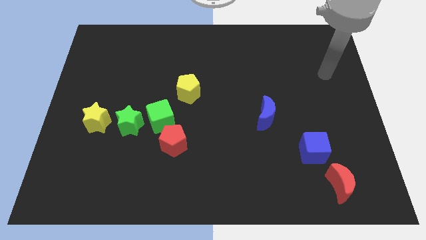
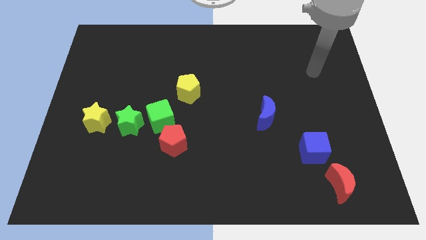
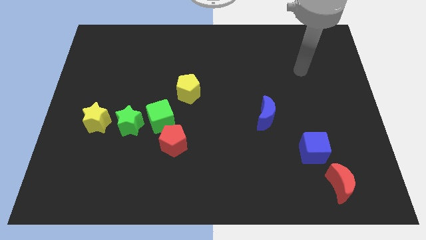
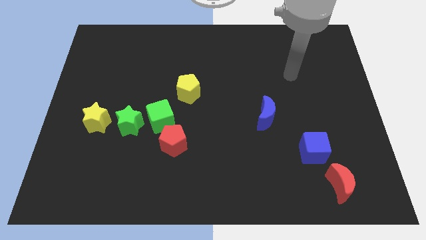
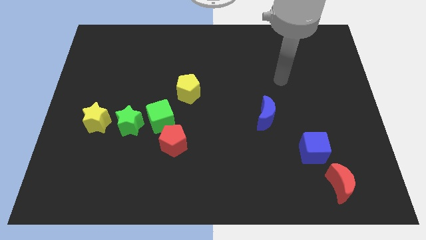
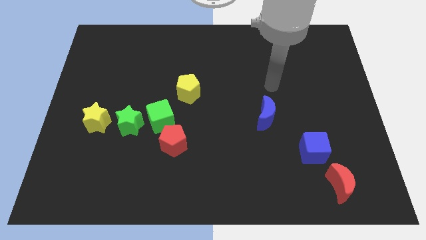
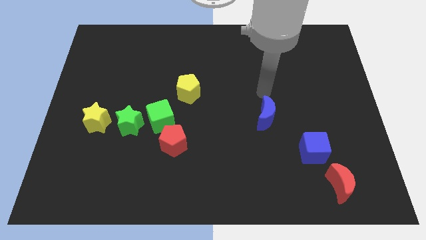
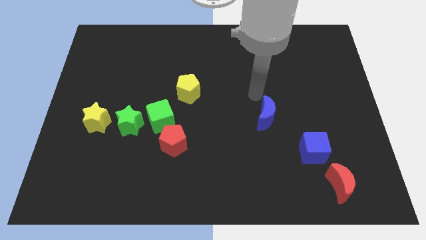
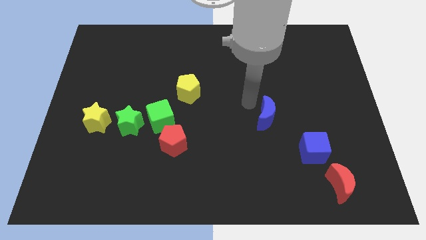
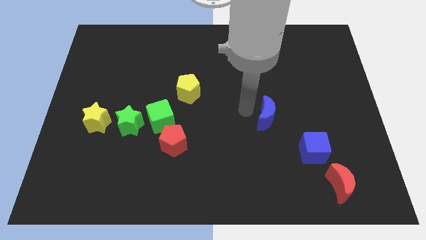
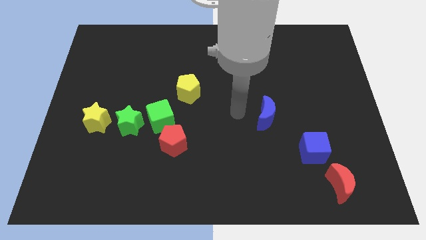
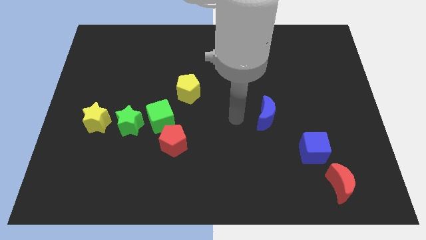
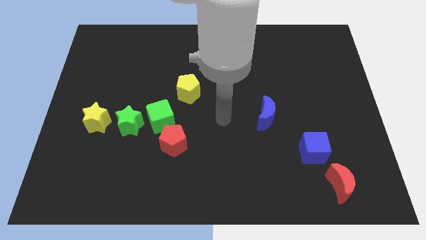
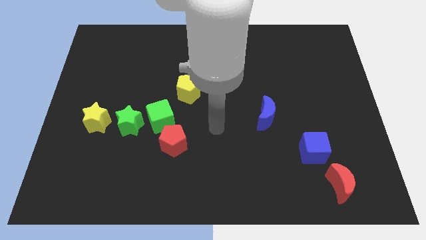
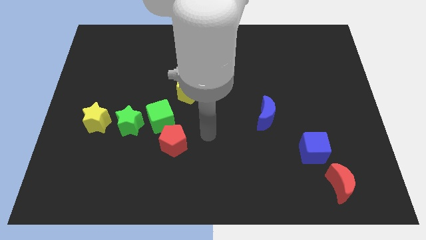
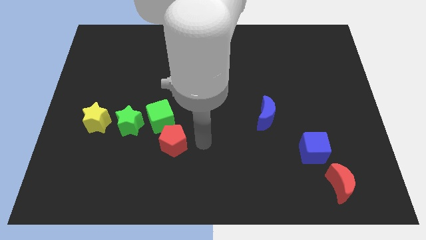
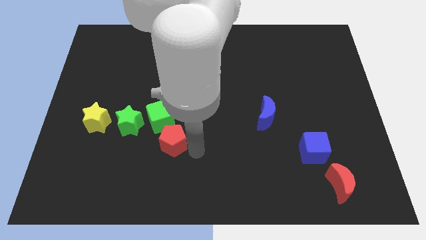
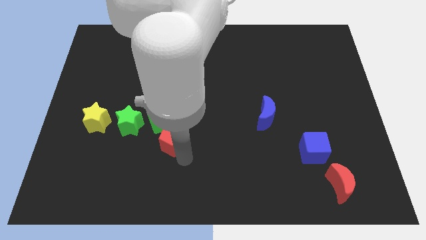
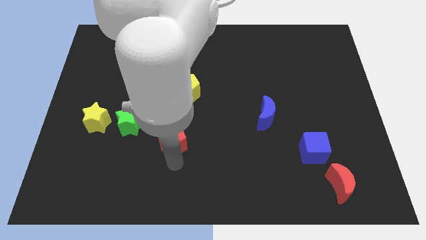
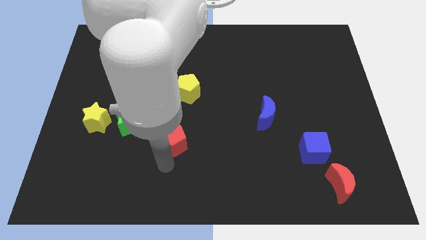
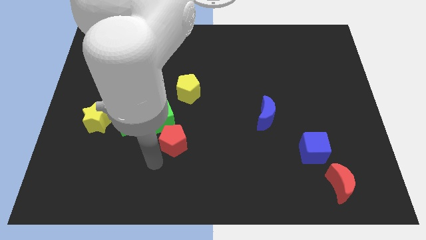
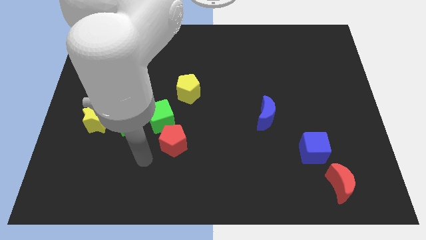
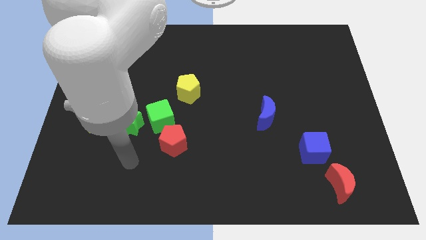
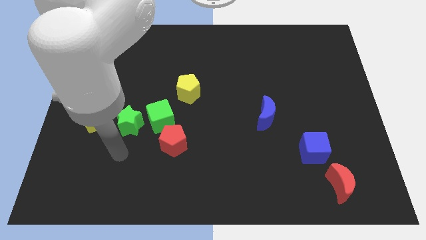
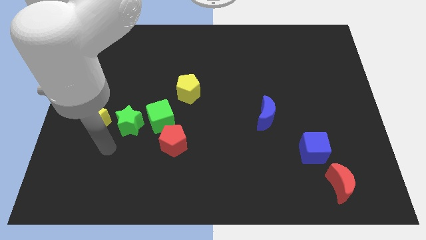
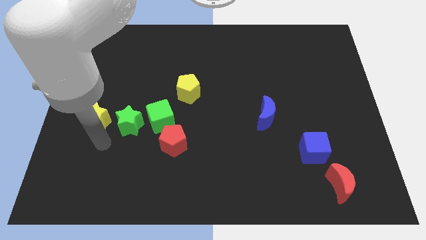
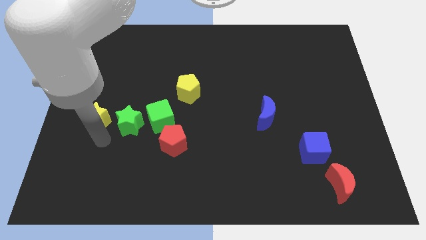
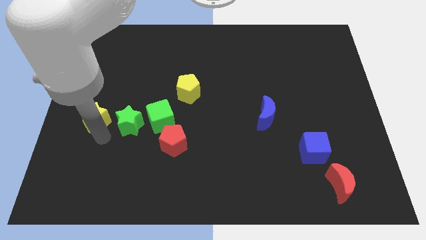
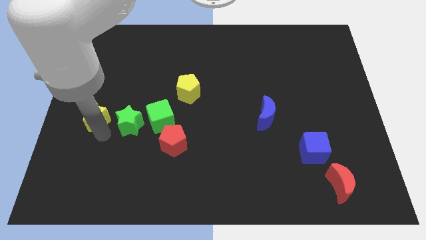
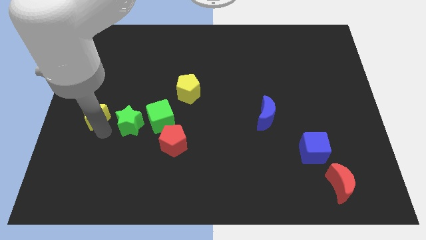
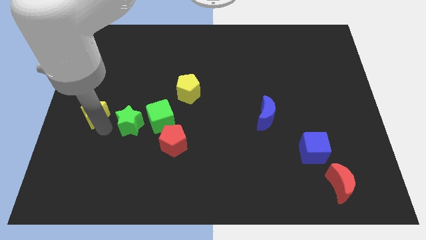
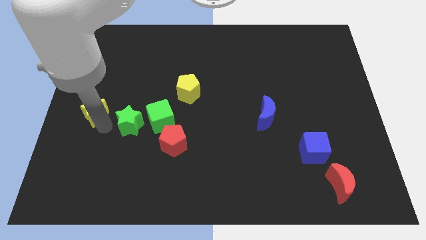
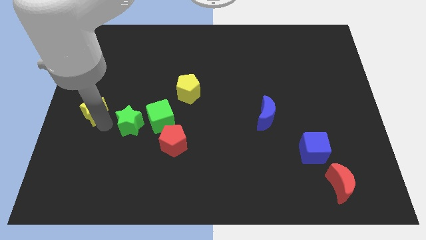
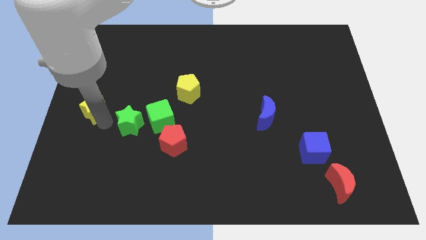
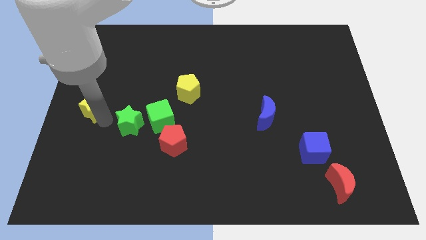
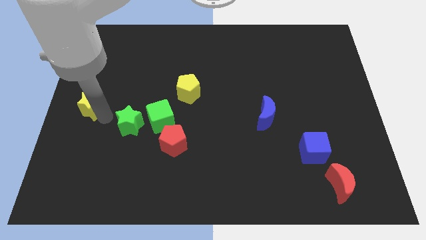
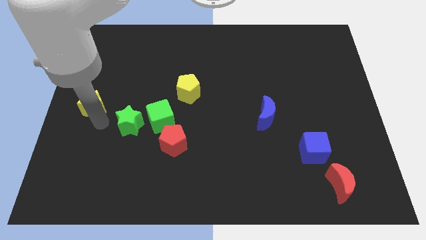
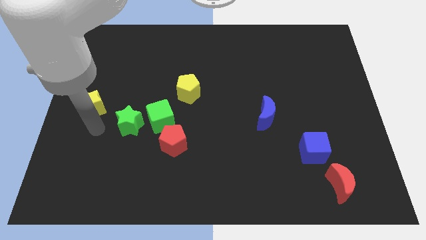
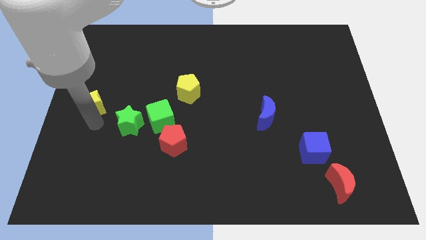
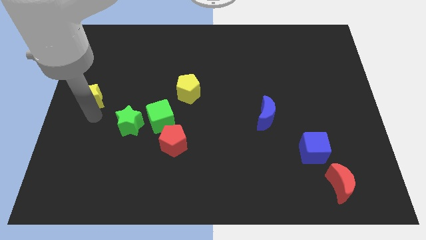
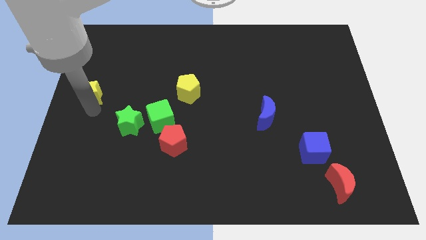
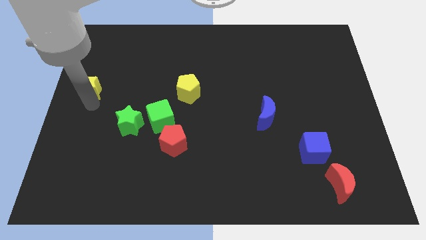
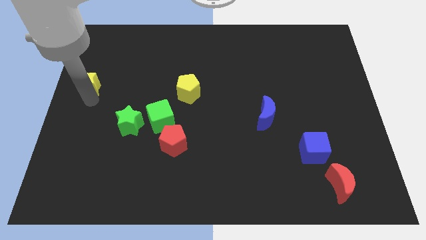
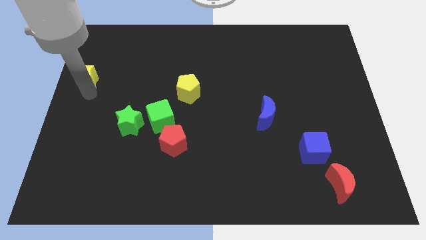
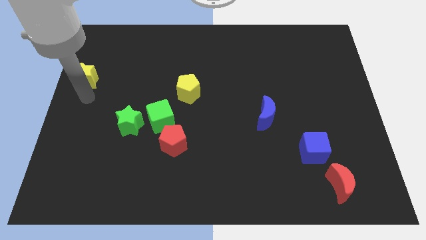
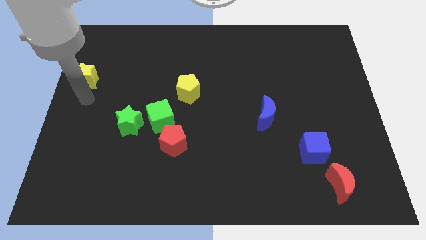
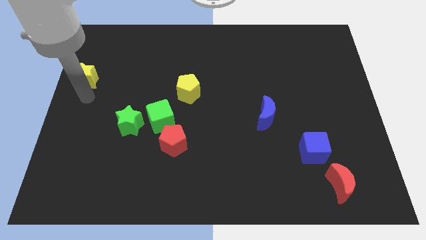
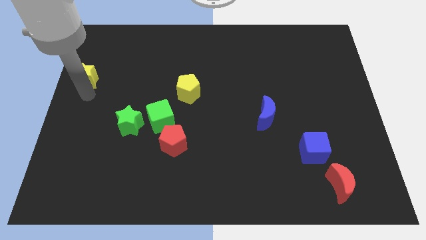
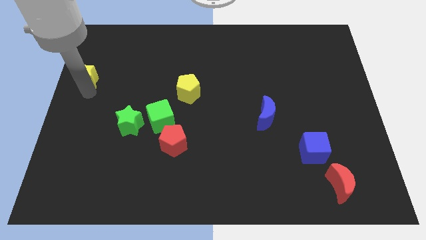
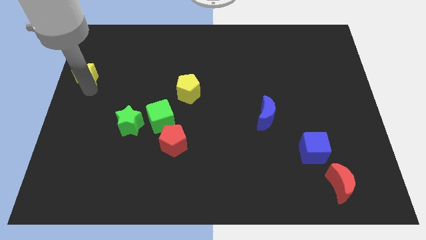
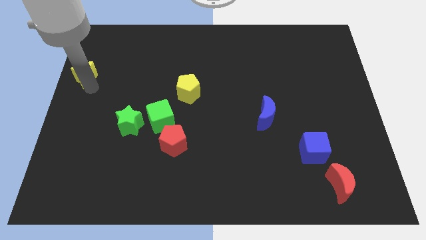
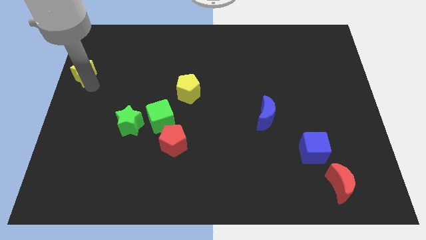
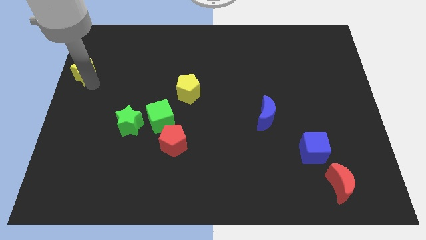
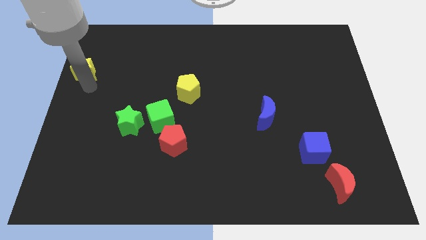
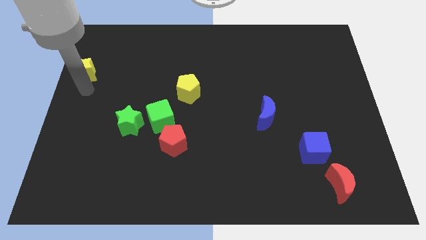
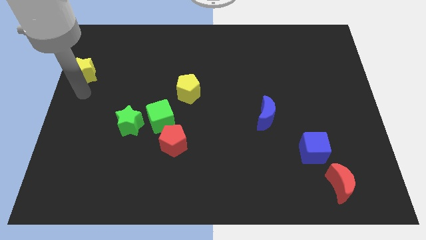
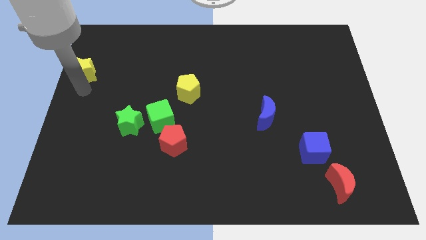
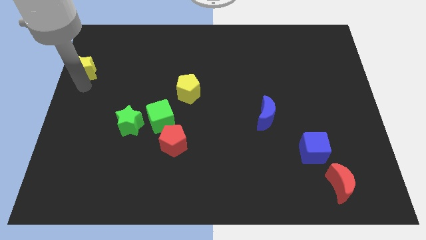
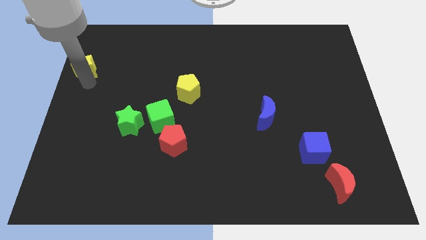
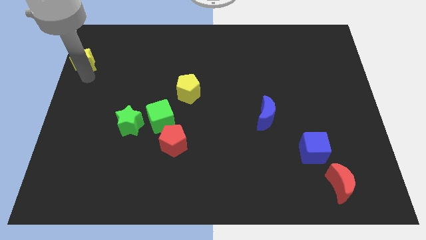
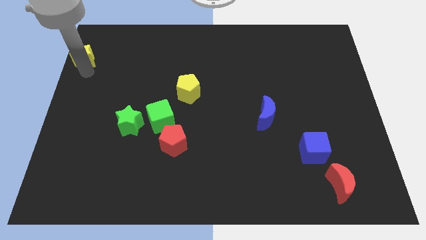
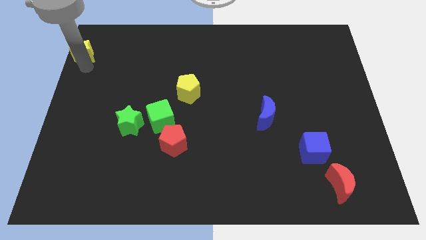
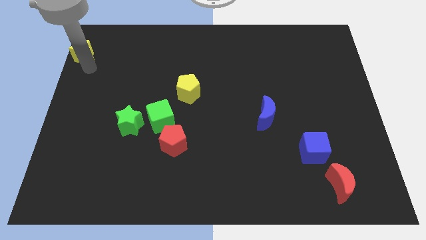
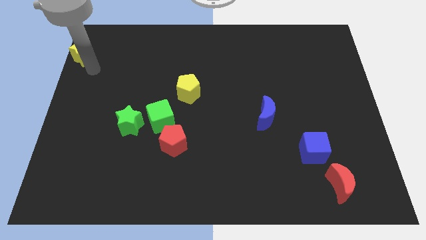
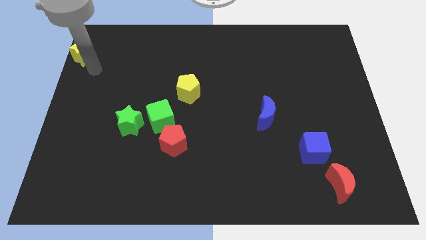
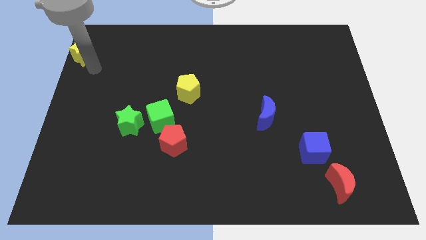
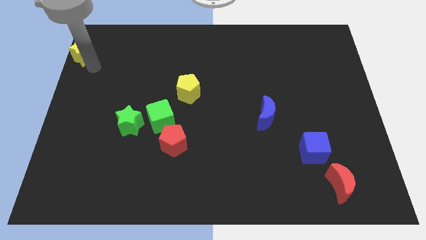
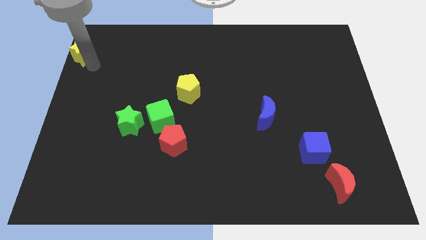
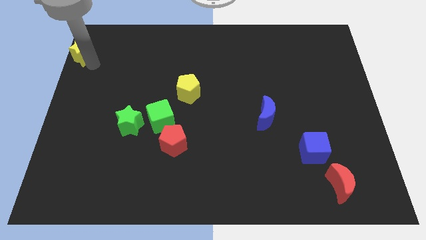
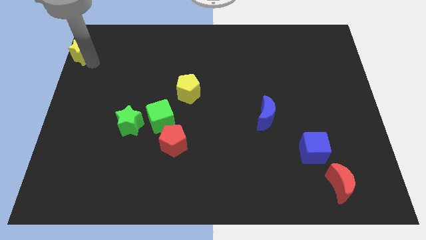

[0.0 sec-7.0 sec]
move the yellow star to the top left
